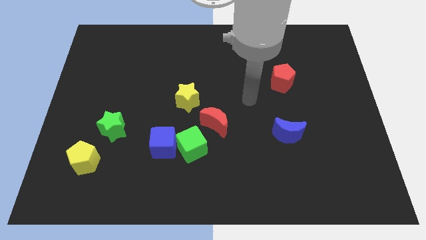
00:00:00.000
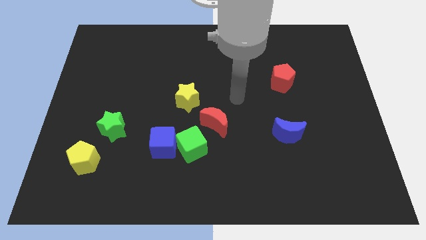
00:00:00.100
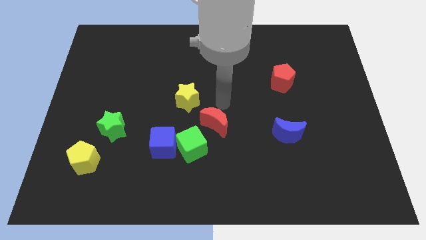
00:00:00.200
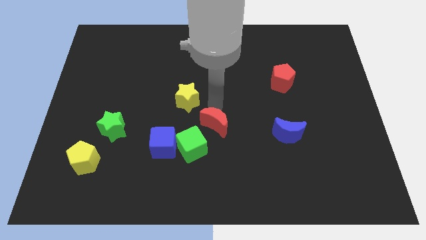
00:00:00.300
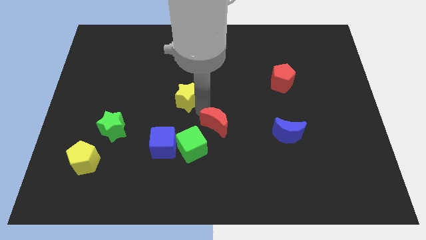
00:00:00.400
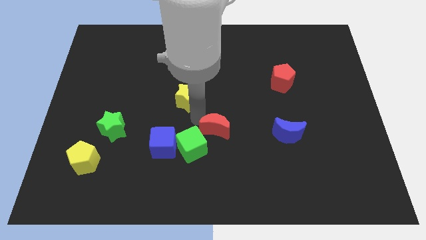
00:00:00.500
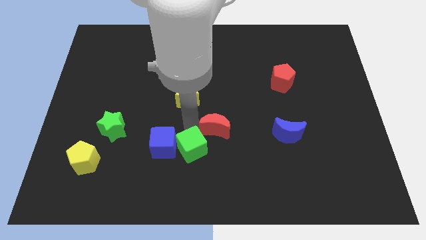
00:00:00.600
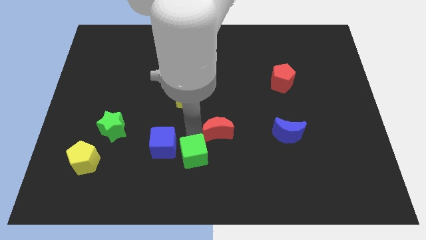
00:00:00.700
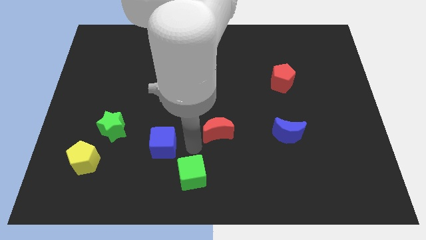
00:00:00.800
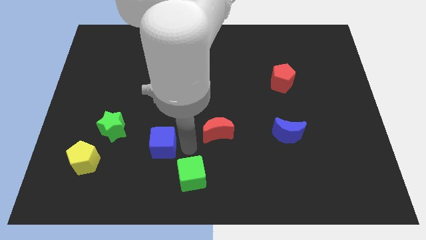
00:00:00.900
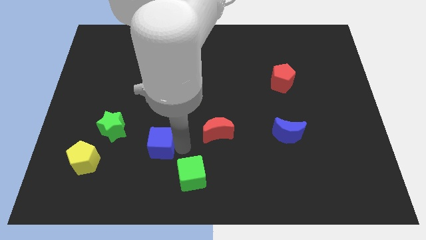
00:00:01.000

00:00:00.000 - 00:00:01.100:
move the blue cube away from the green cube

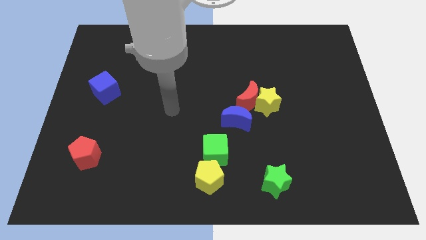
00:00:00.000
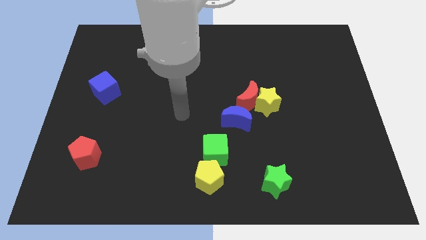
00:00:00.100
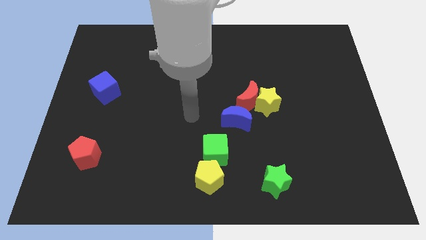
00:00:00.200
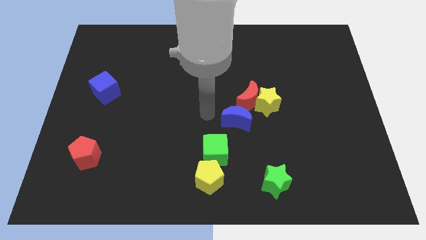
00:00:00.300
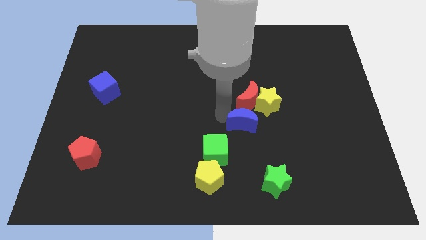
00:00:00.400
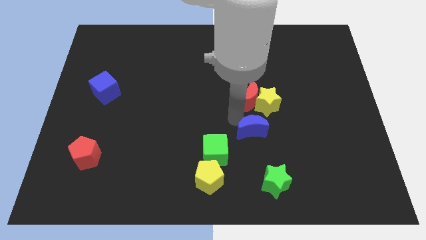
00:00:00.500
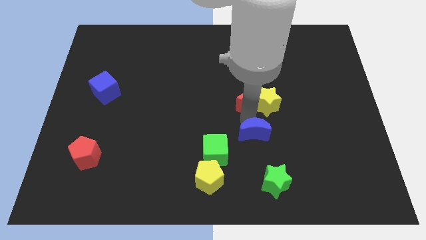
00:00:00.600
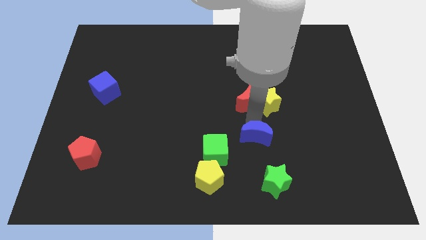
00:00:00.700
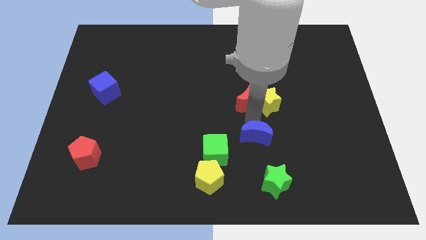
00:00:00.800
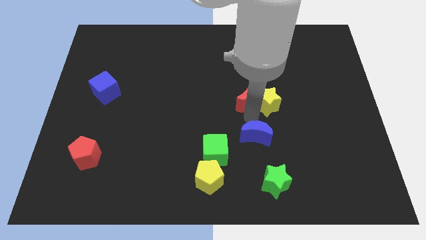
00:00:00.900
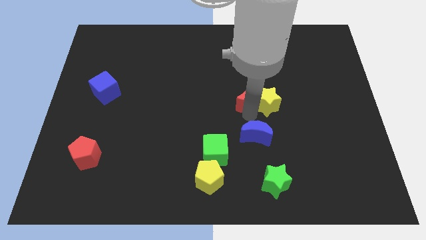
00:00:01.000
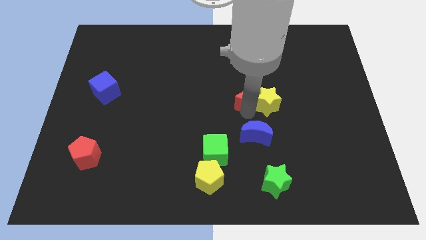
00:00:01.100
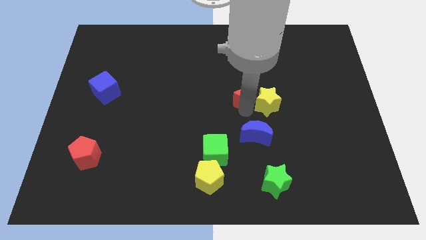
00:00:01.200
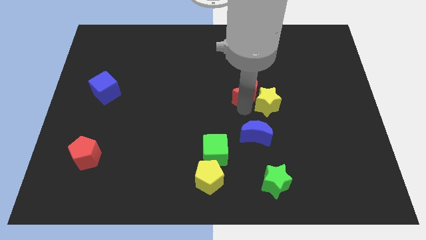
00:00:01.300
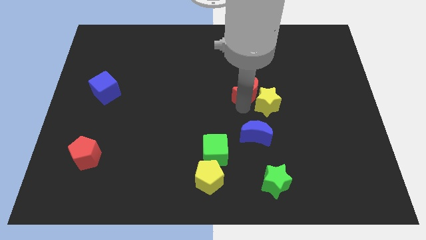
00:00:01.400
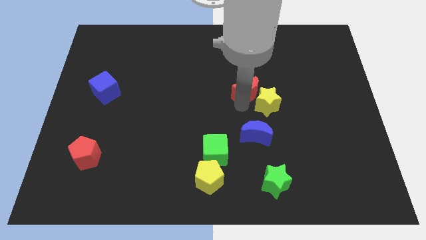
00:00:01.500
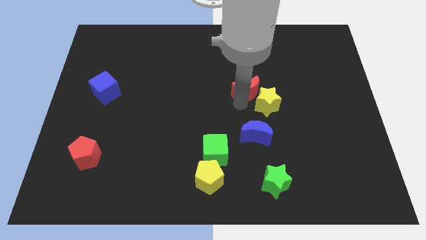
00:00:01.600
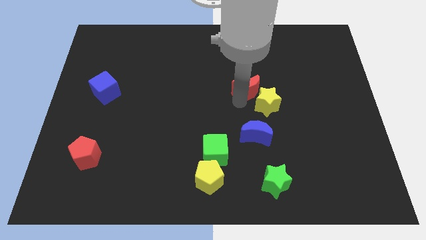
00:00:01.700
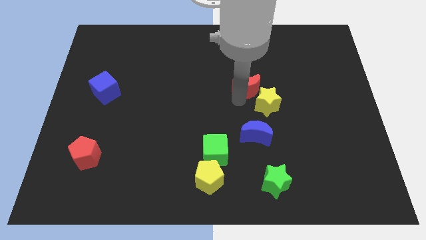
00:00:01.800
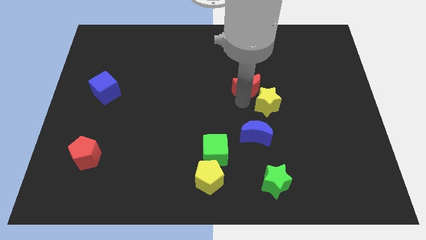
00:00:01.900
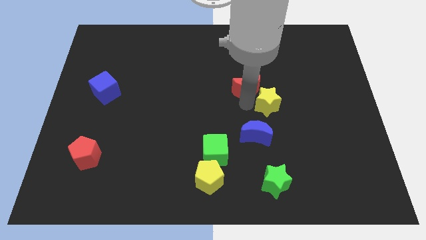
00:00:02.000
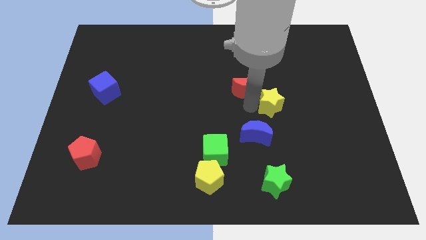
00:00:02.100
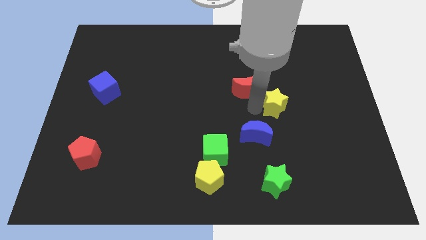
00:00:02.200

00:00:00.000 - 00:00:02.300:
move the red moon away from the yellow star and blue moon

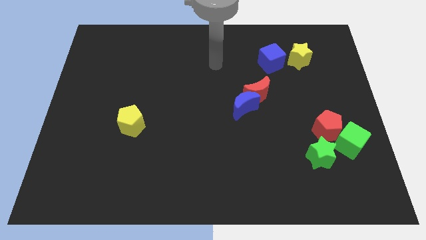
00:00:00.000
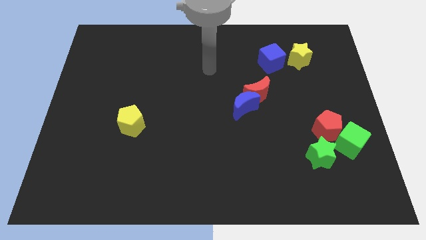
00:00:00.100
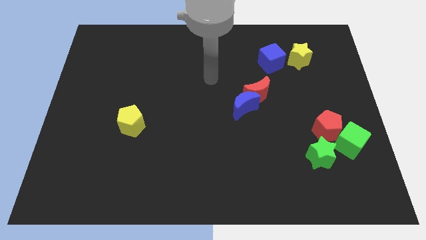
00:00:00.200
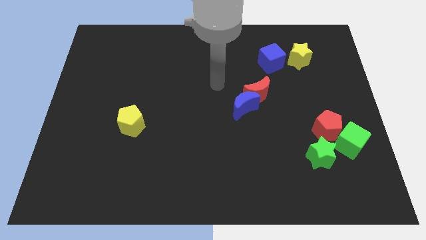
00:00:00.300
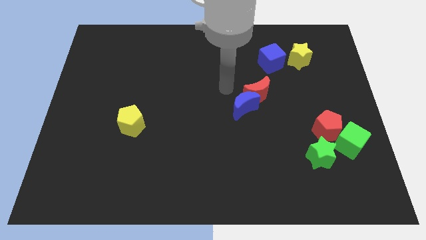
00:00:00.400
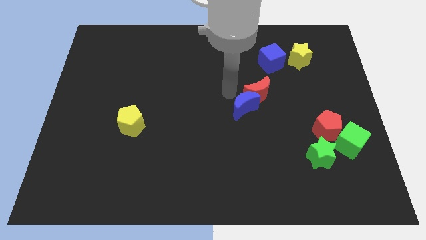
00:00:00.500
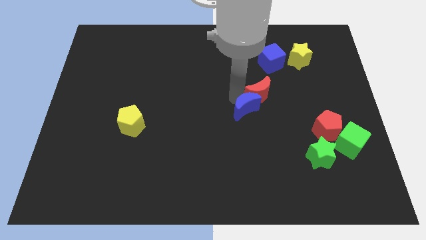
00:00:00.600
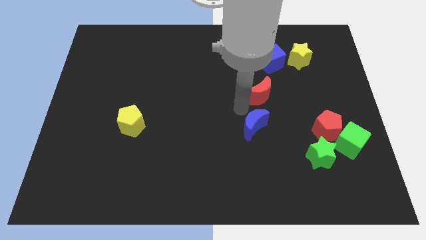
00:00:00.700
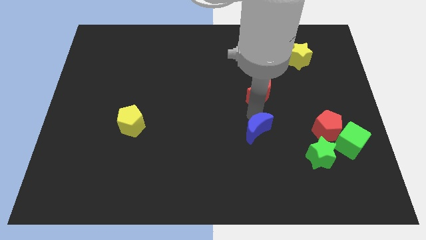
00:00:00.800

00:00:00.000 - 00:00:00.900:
move the red moon away from the blue moon

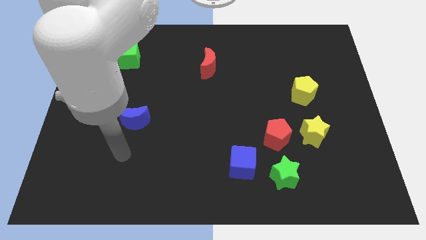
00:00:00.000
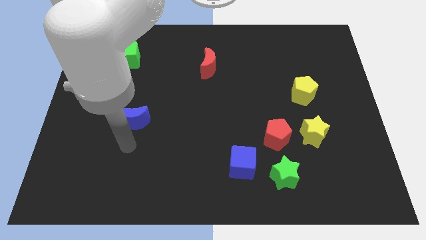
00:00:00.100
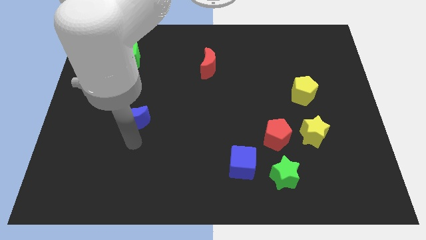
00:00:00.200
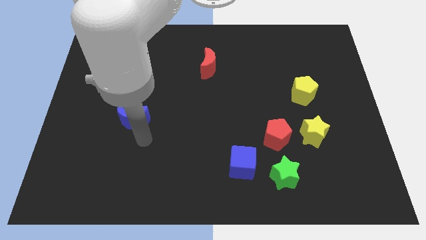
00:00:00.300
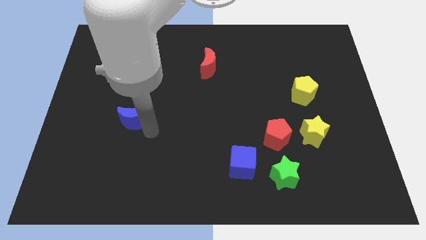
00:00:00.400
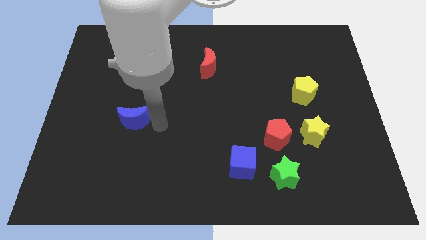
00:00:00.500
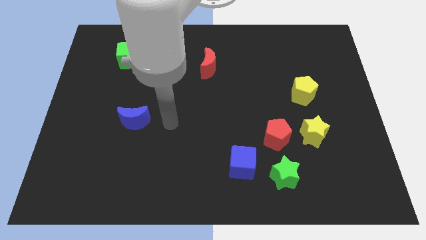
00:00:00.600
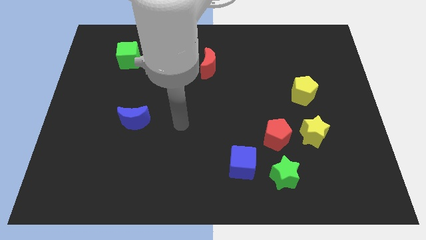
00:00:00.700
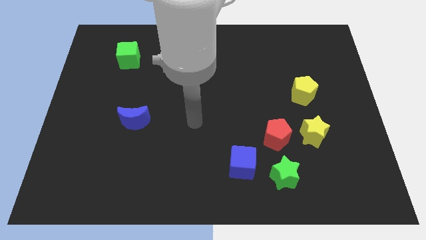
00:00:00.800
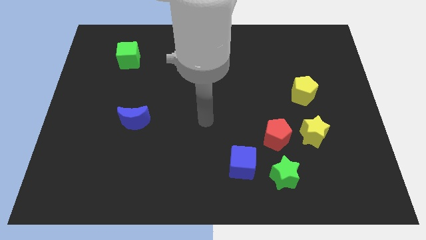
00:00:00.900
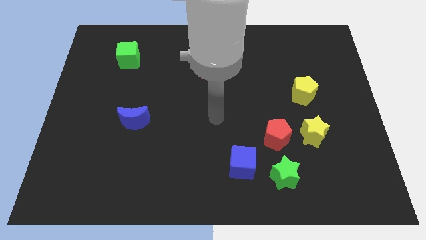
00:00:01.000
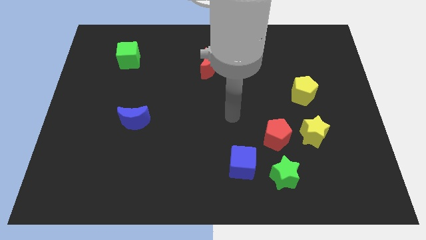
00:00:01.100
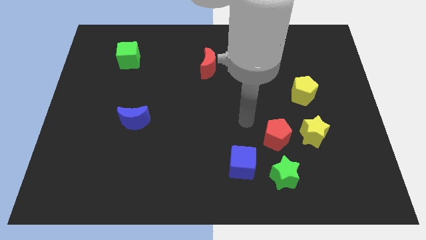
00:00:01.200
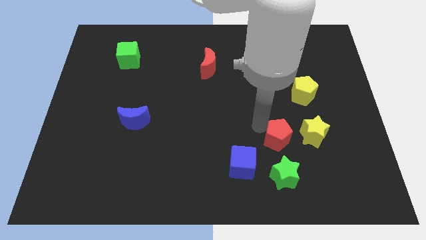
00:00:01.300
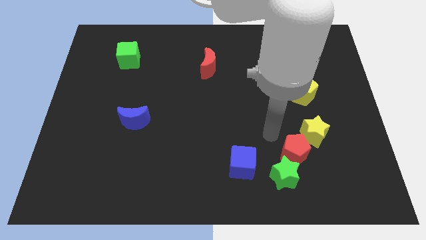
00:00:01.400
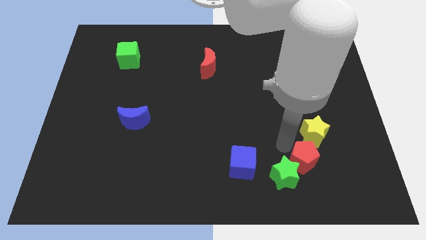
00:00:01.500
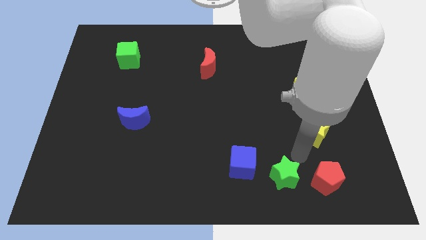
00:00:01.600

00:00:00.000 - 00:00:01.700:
pull the yellow star apart from the red pentagon

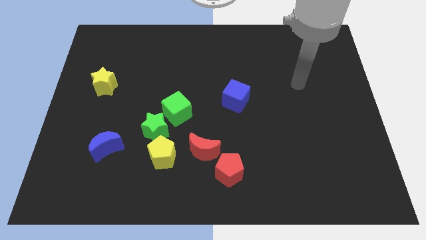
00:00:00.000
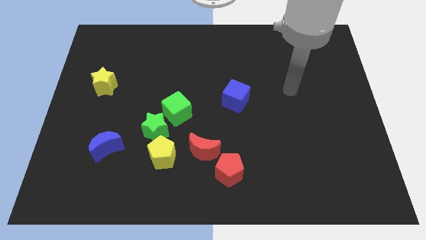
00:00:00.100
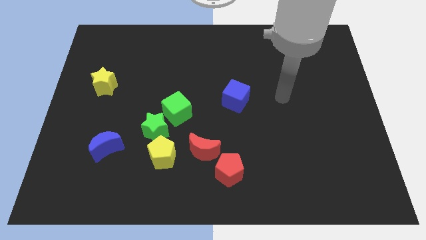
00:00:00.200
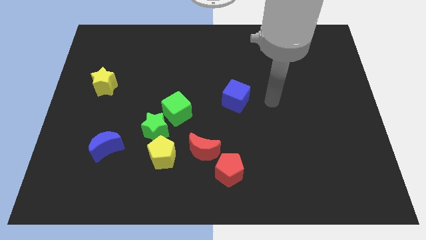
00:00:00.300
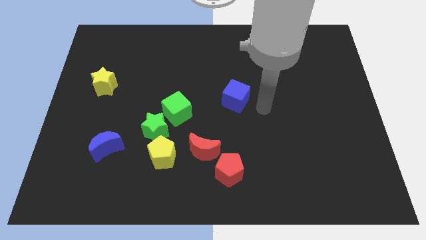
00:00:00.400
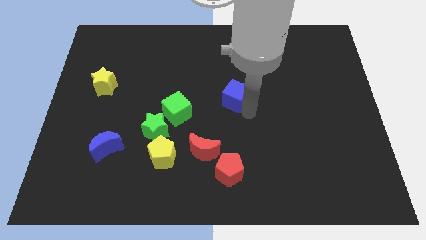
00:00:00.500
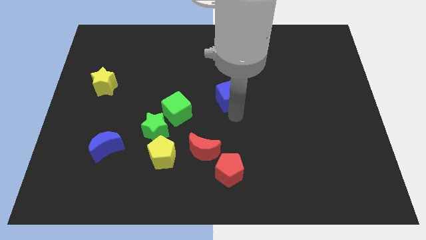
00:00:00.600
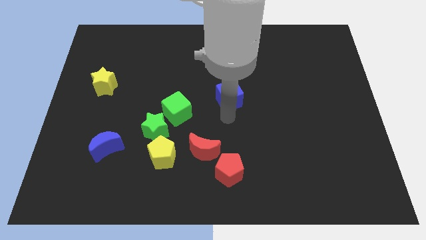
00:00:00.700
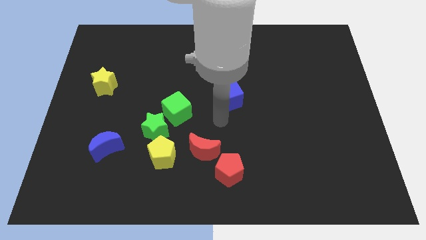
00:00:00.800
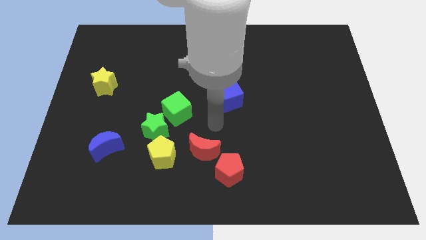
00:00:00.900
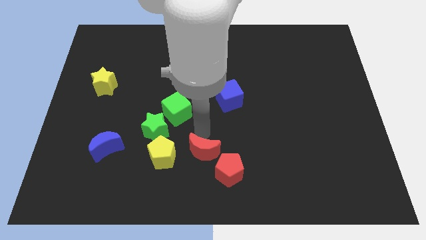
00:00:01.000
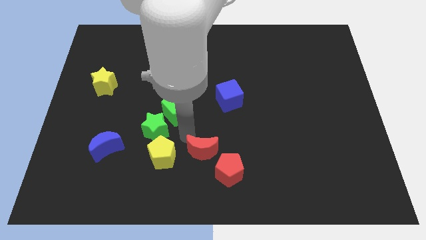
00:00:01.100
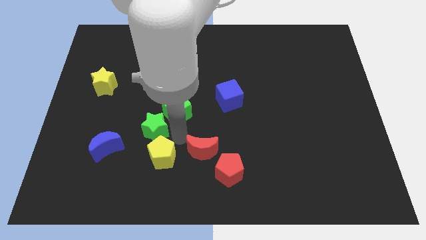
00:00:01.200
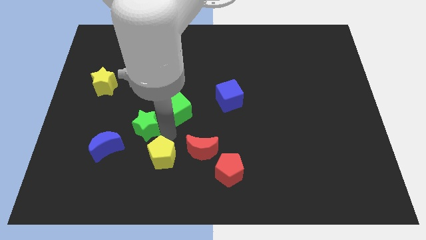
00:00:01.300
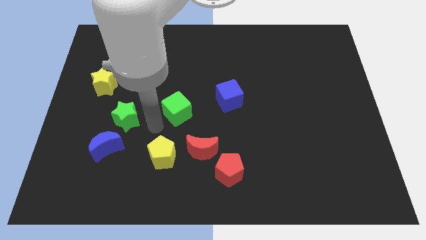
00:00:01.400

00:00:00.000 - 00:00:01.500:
move the green cube away from the green star

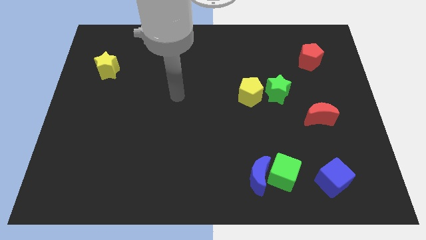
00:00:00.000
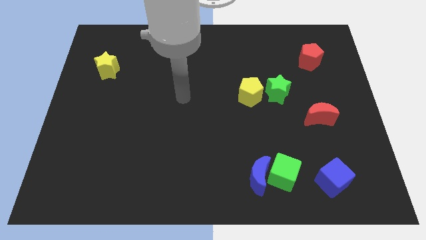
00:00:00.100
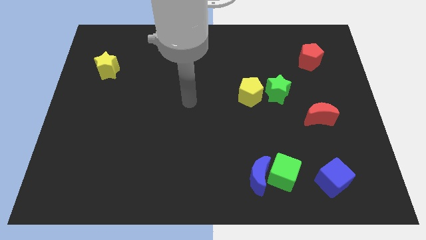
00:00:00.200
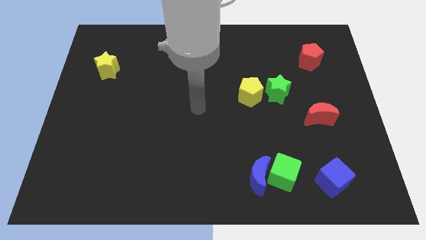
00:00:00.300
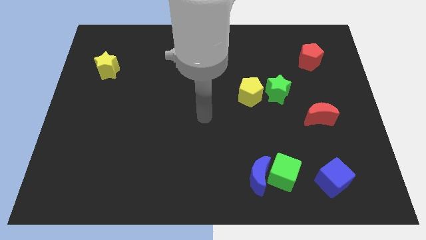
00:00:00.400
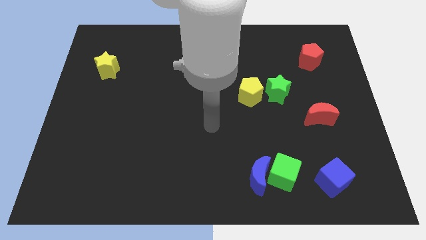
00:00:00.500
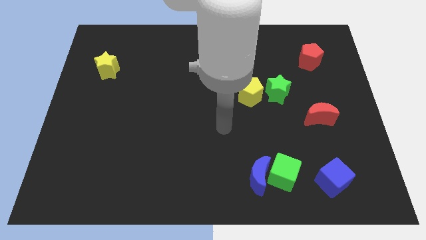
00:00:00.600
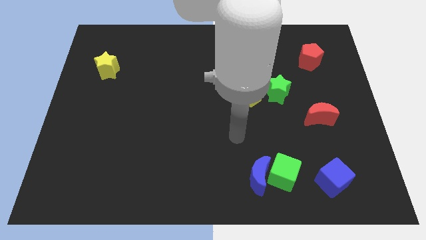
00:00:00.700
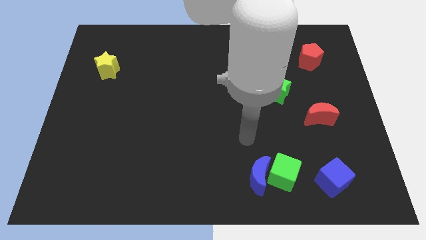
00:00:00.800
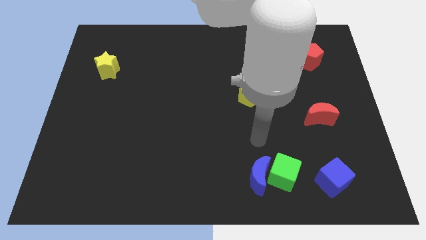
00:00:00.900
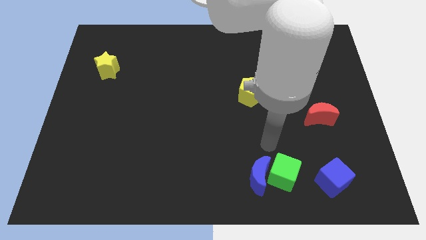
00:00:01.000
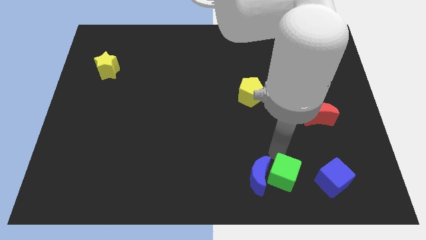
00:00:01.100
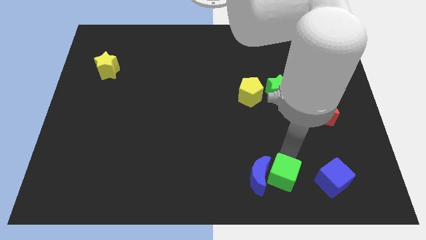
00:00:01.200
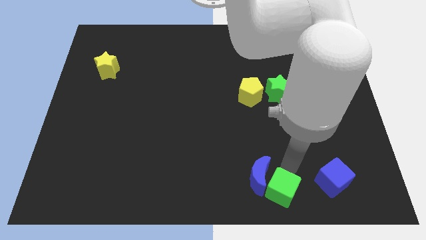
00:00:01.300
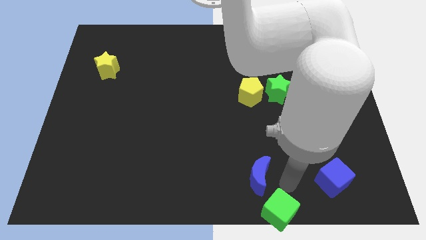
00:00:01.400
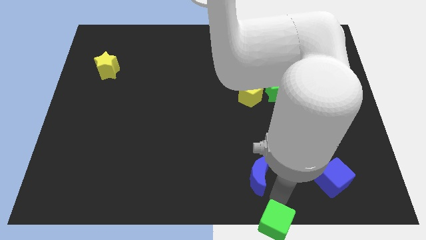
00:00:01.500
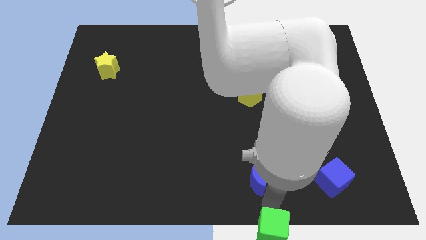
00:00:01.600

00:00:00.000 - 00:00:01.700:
move the blue moon away from the green cube
